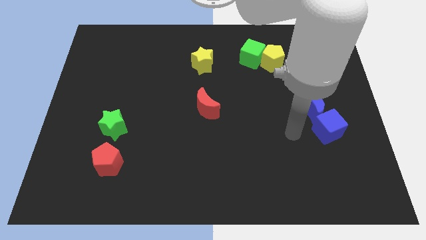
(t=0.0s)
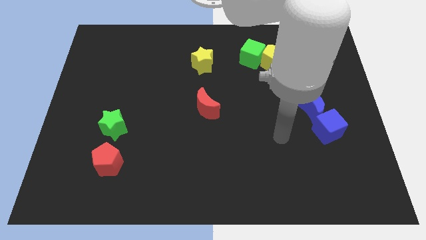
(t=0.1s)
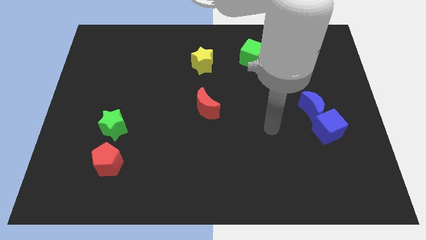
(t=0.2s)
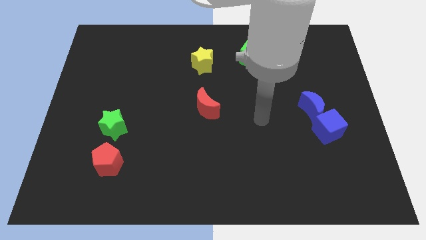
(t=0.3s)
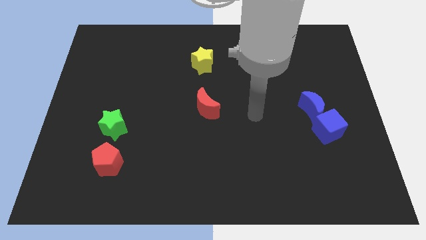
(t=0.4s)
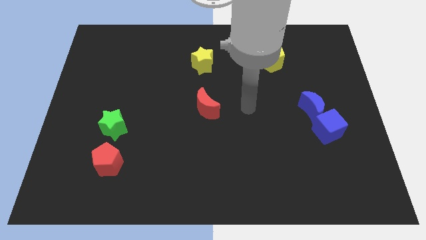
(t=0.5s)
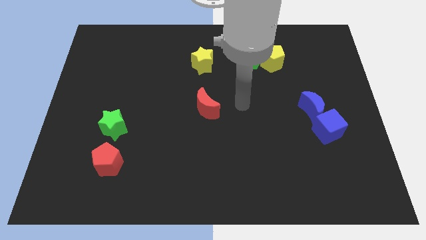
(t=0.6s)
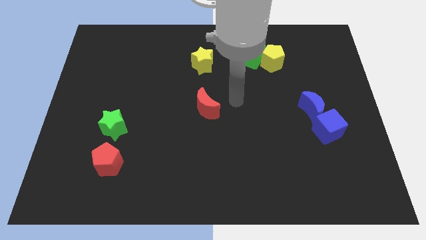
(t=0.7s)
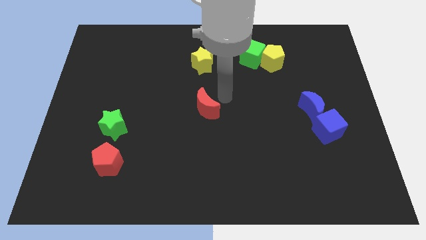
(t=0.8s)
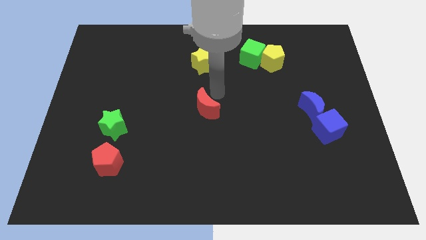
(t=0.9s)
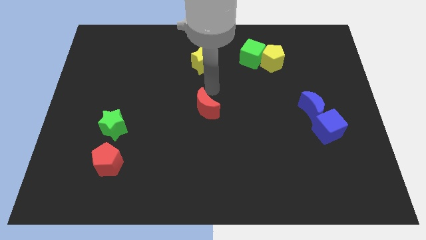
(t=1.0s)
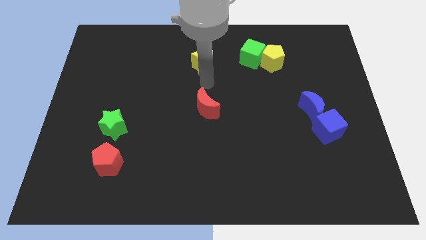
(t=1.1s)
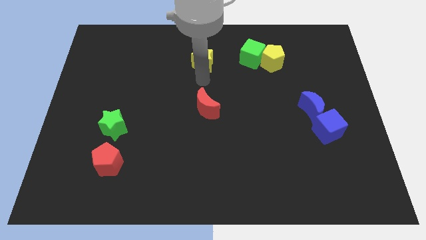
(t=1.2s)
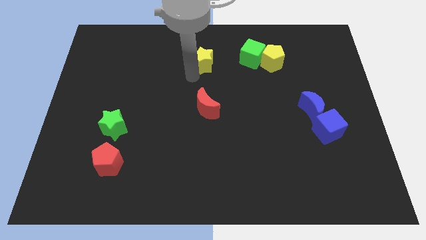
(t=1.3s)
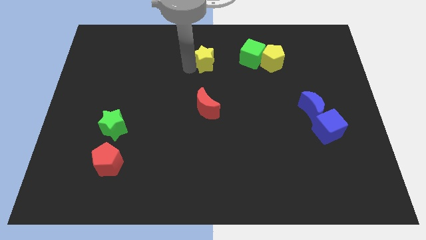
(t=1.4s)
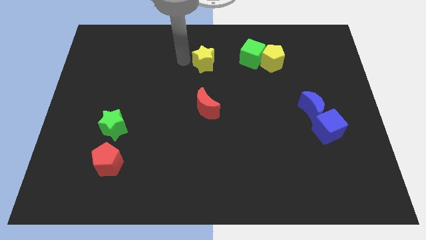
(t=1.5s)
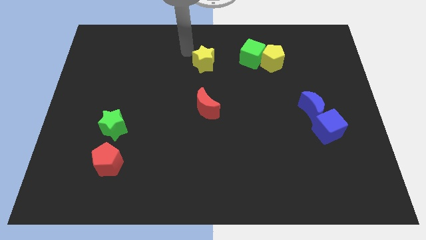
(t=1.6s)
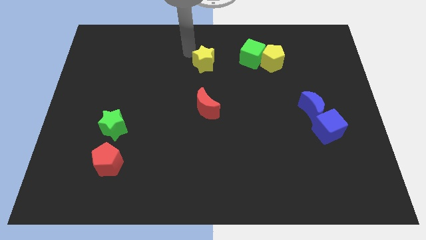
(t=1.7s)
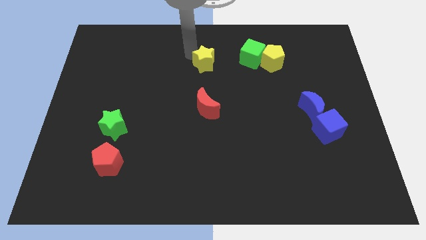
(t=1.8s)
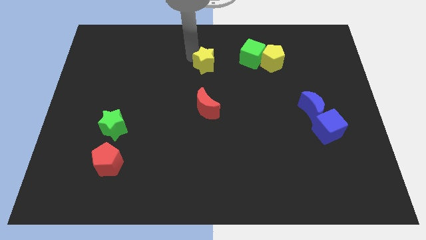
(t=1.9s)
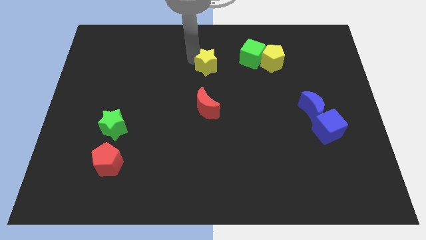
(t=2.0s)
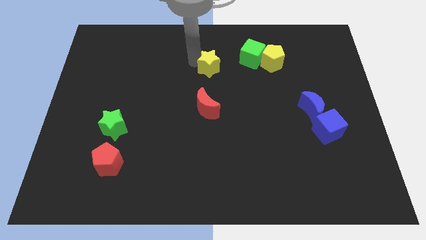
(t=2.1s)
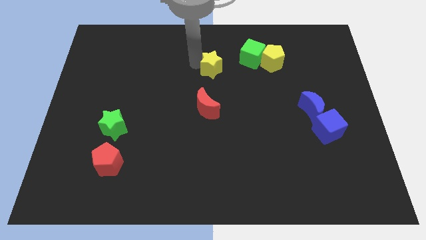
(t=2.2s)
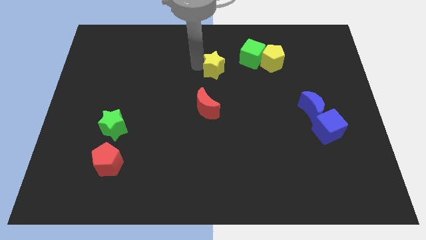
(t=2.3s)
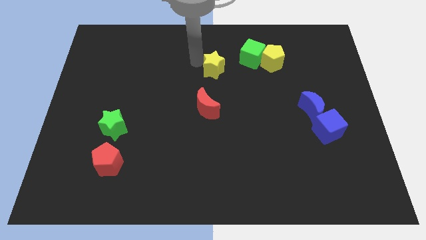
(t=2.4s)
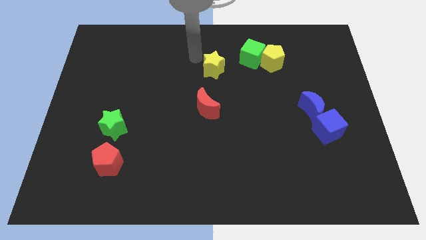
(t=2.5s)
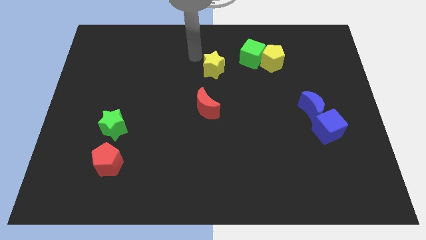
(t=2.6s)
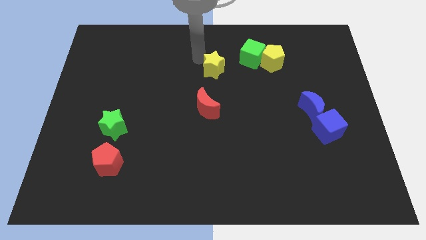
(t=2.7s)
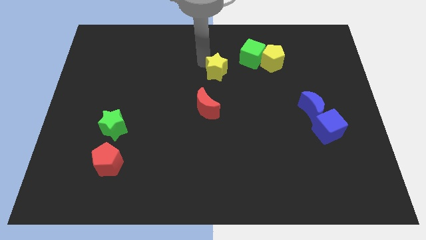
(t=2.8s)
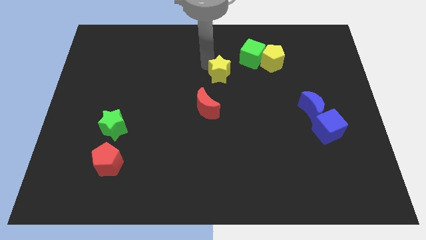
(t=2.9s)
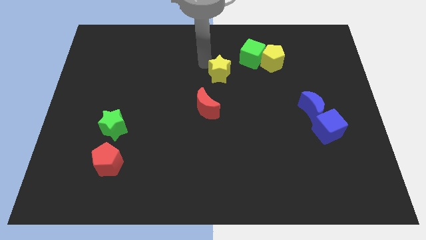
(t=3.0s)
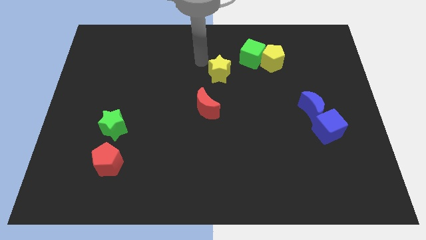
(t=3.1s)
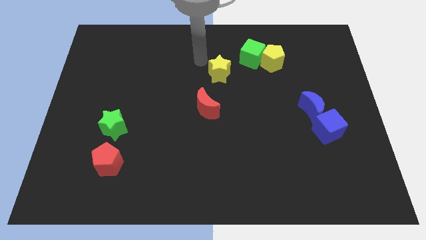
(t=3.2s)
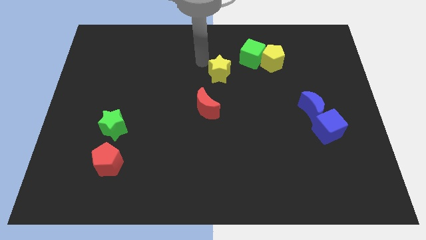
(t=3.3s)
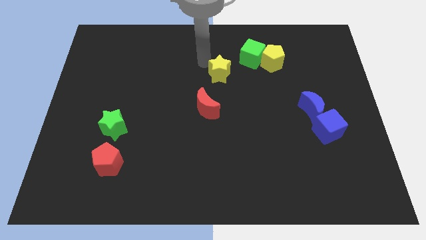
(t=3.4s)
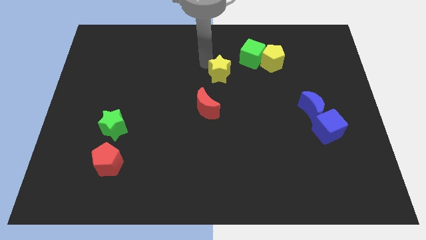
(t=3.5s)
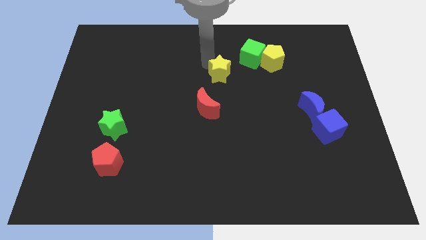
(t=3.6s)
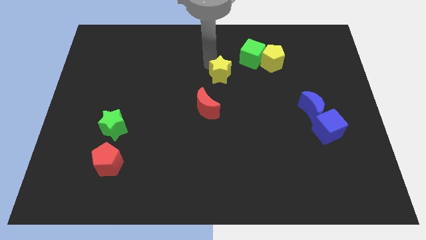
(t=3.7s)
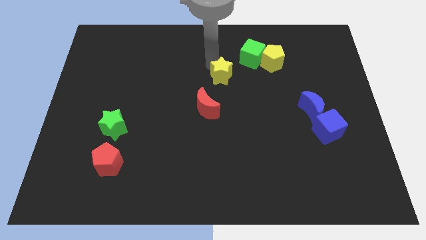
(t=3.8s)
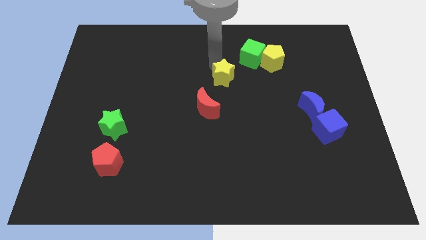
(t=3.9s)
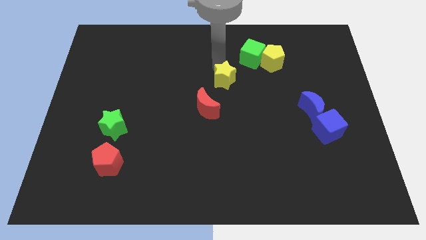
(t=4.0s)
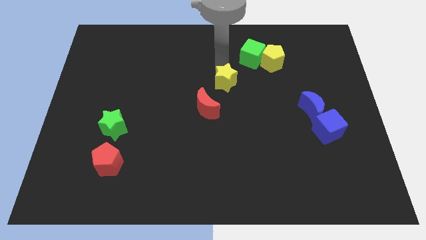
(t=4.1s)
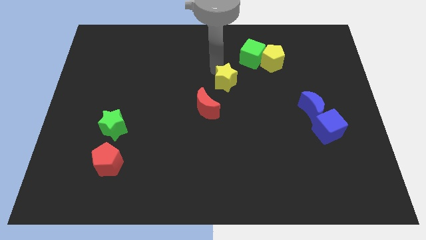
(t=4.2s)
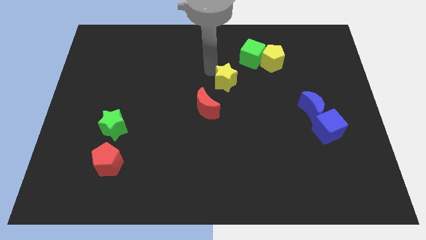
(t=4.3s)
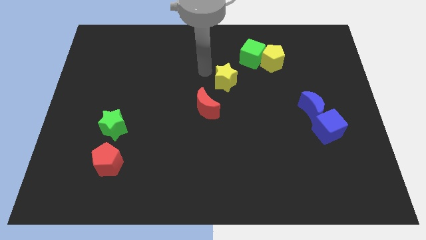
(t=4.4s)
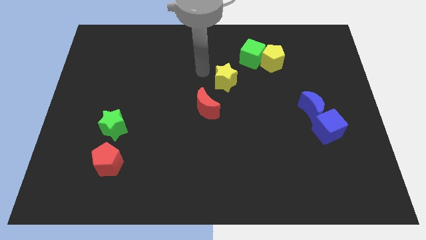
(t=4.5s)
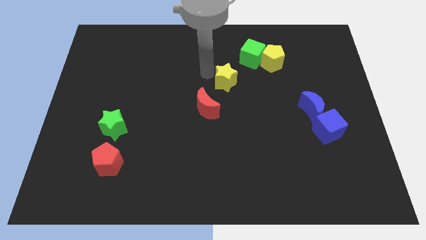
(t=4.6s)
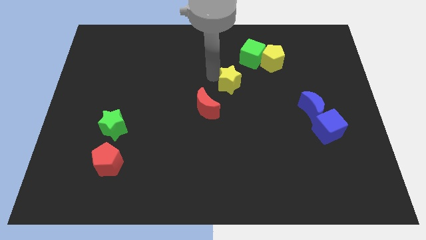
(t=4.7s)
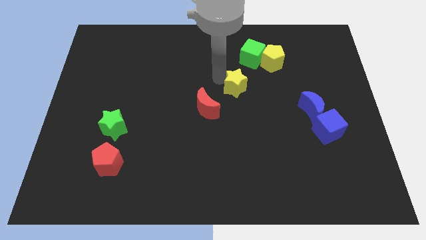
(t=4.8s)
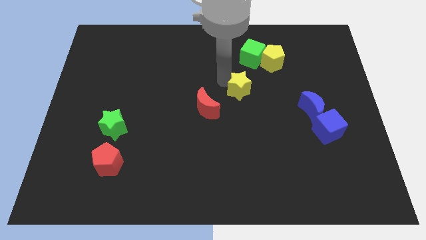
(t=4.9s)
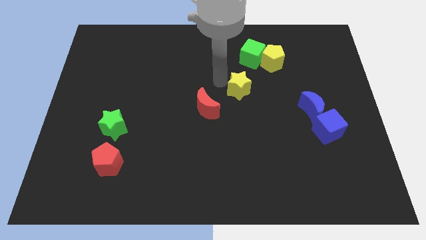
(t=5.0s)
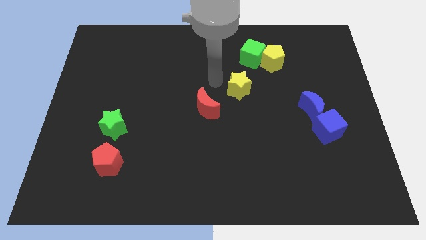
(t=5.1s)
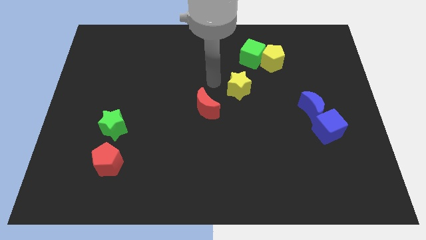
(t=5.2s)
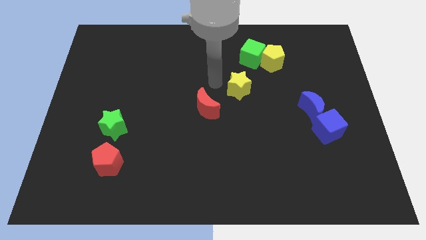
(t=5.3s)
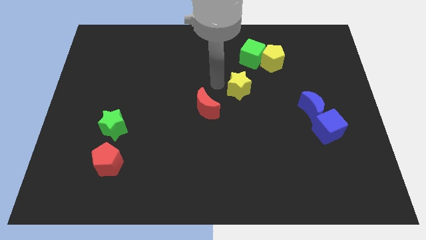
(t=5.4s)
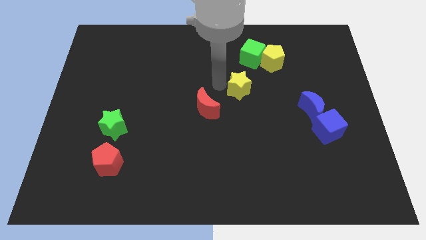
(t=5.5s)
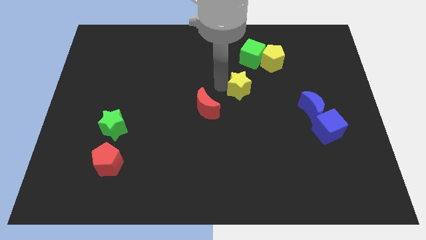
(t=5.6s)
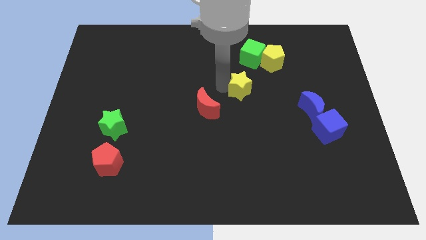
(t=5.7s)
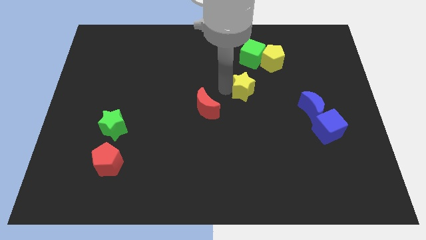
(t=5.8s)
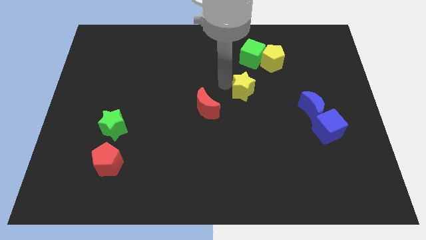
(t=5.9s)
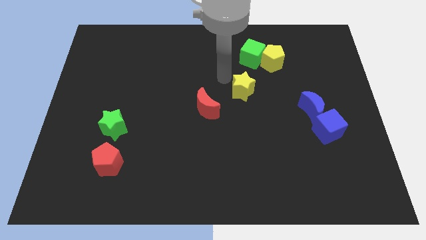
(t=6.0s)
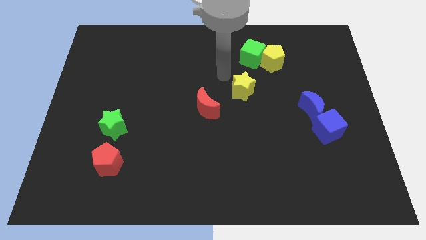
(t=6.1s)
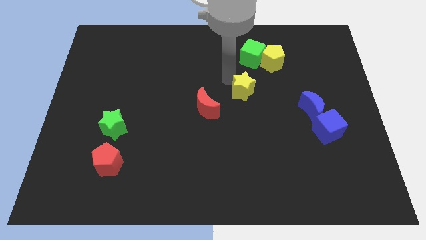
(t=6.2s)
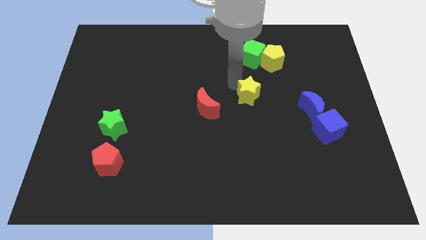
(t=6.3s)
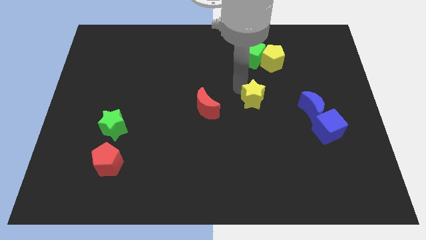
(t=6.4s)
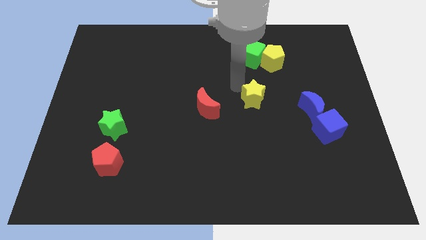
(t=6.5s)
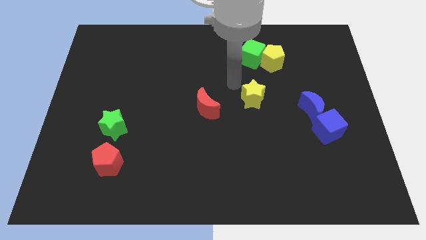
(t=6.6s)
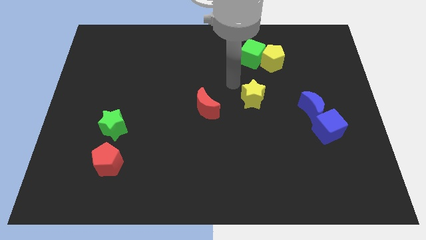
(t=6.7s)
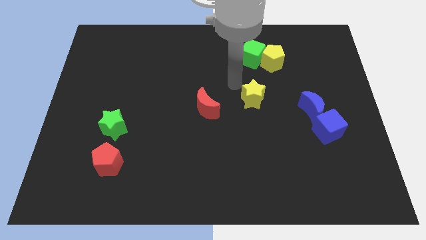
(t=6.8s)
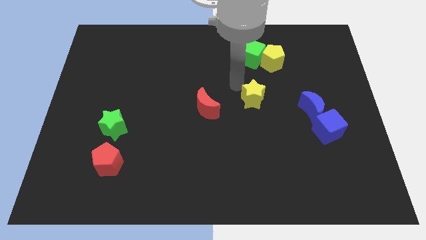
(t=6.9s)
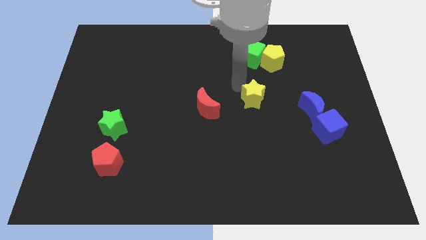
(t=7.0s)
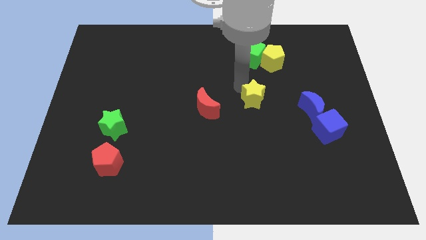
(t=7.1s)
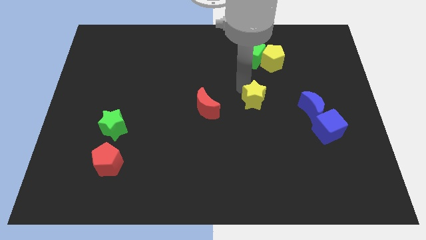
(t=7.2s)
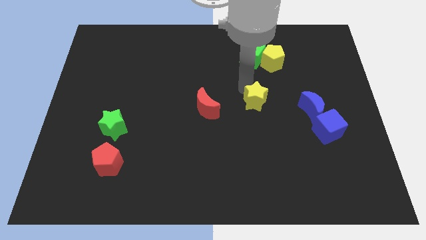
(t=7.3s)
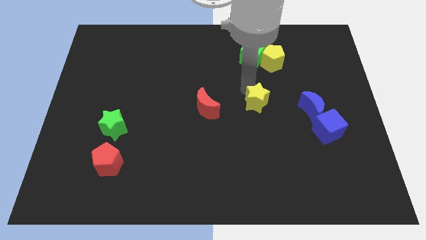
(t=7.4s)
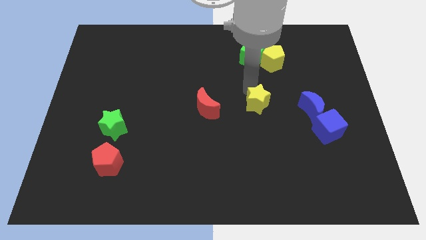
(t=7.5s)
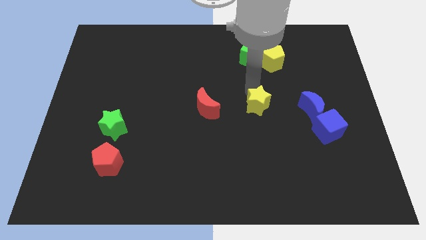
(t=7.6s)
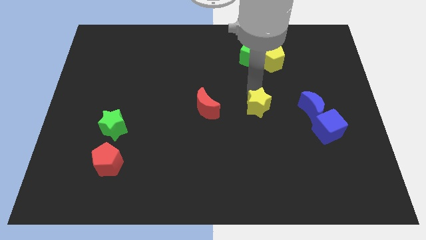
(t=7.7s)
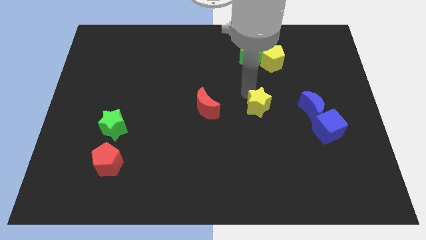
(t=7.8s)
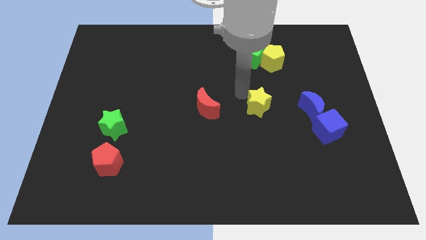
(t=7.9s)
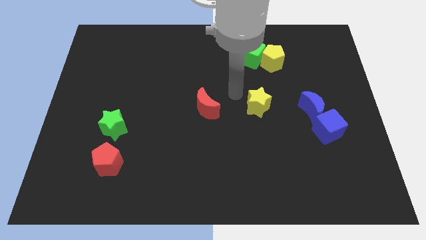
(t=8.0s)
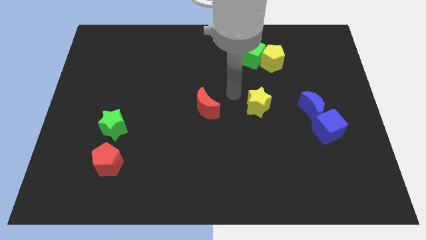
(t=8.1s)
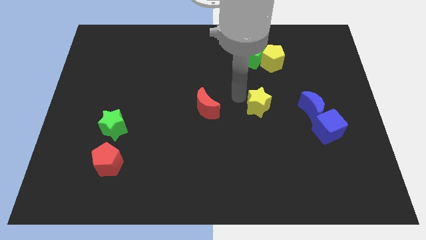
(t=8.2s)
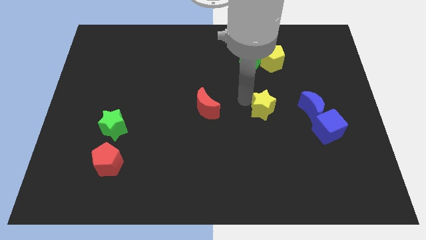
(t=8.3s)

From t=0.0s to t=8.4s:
slide the yellow star downwards and right diagonally
